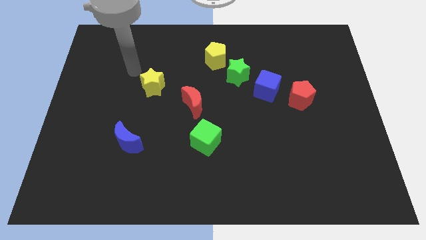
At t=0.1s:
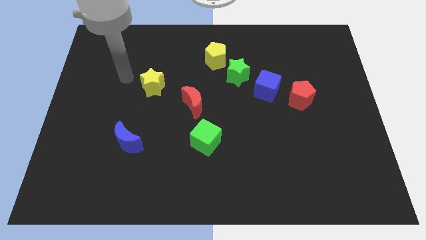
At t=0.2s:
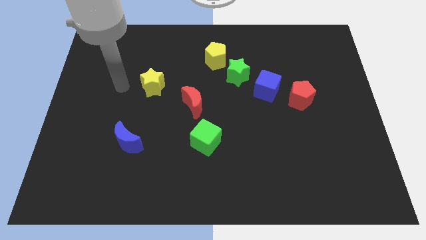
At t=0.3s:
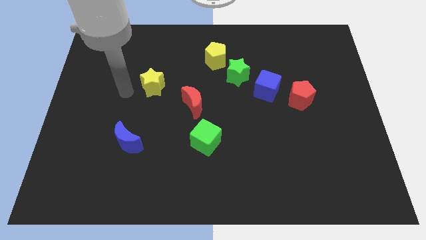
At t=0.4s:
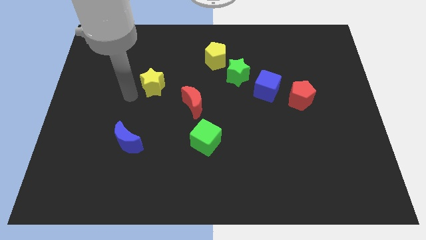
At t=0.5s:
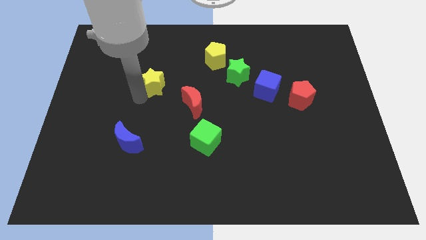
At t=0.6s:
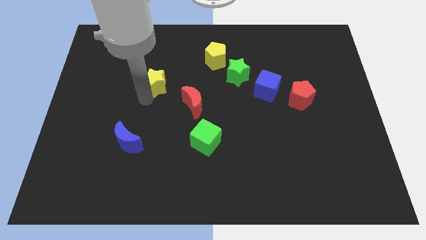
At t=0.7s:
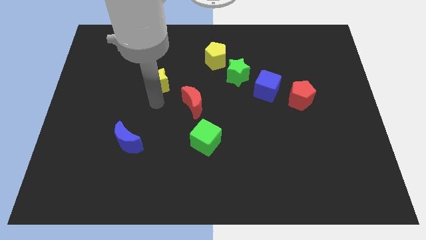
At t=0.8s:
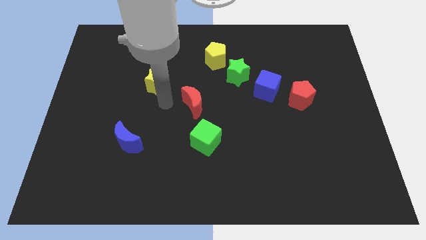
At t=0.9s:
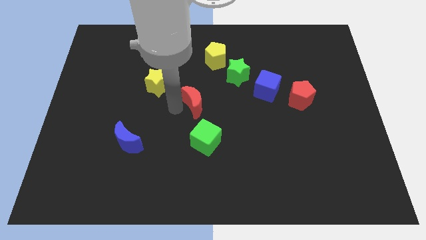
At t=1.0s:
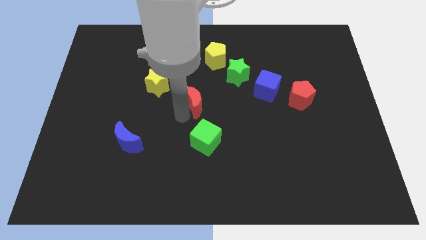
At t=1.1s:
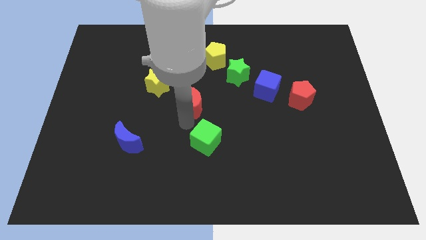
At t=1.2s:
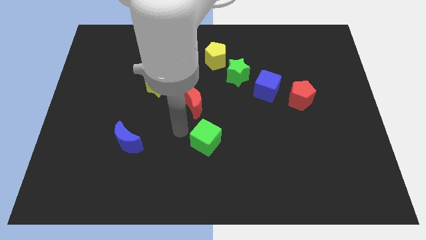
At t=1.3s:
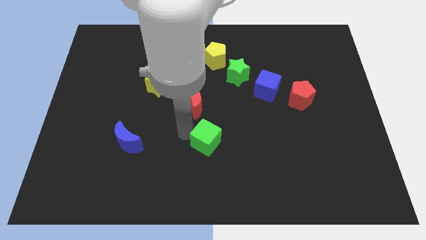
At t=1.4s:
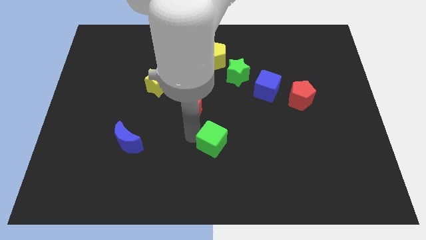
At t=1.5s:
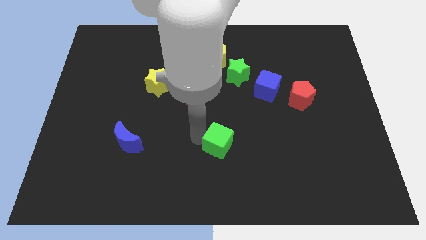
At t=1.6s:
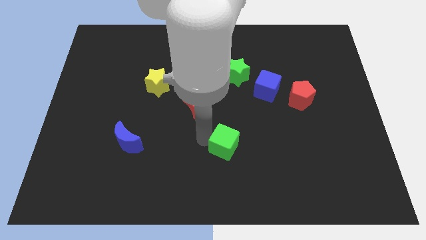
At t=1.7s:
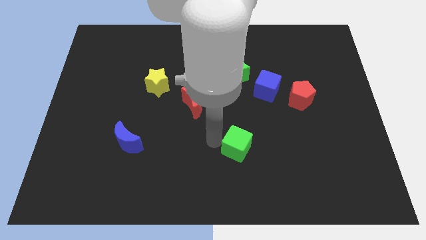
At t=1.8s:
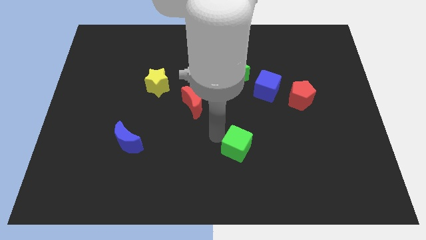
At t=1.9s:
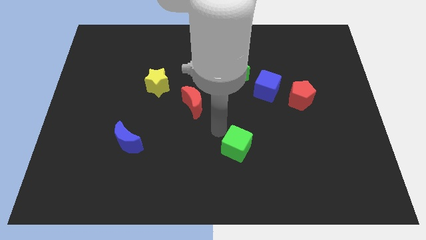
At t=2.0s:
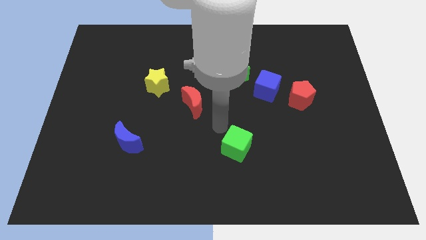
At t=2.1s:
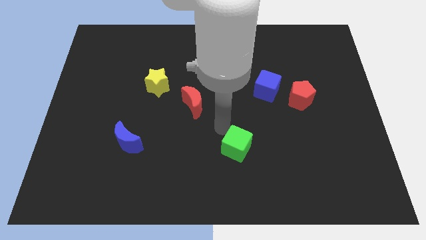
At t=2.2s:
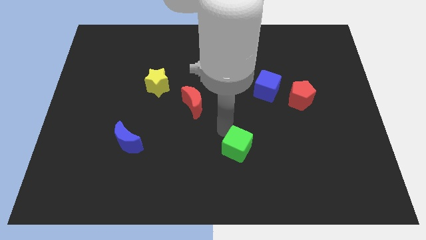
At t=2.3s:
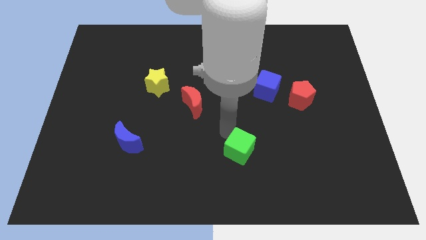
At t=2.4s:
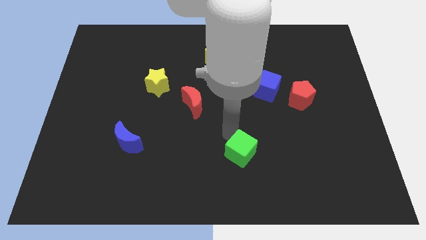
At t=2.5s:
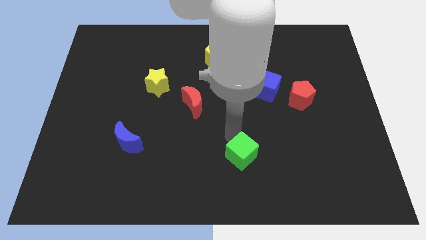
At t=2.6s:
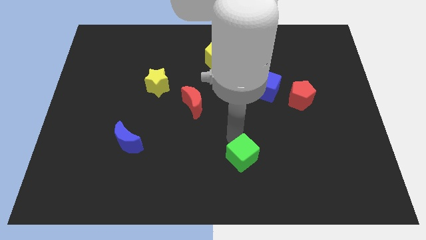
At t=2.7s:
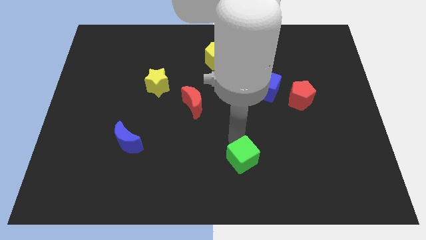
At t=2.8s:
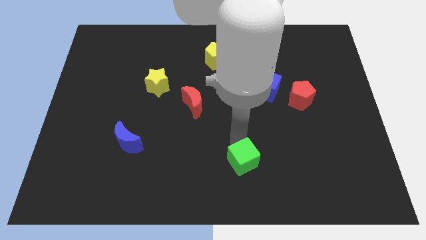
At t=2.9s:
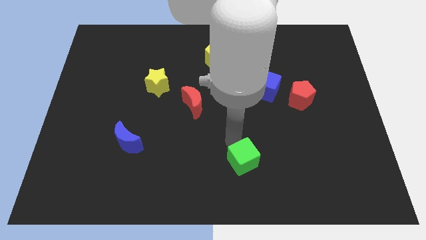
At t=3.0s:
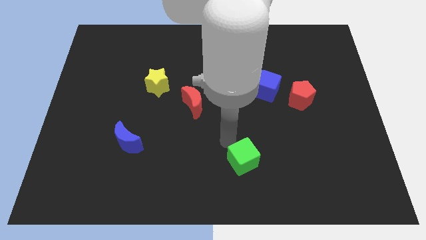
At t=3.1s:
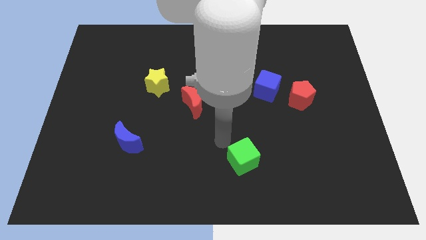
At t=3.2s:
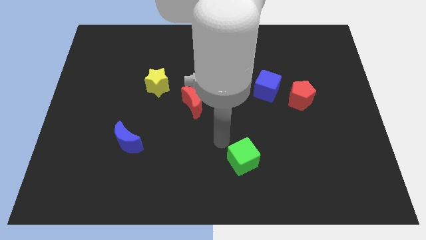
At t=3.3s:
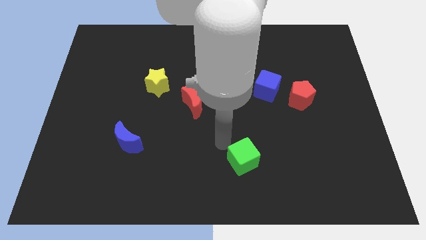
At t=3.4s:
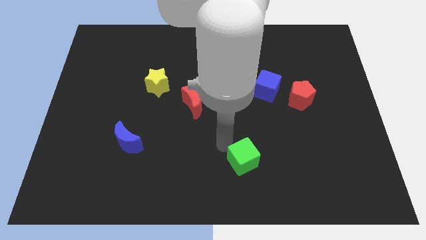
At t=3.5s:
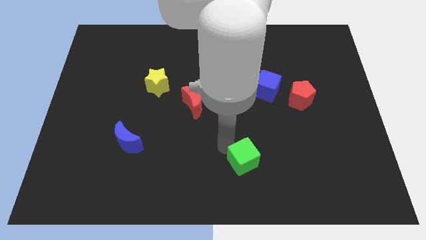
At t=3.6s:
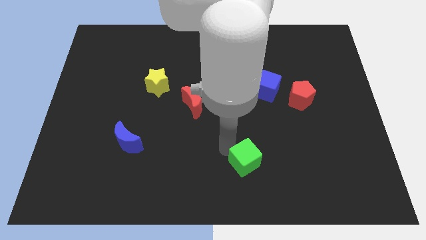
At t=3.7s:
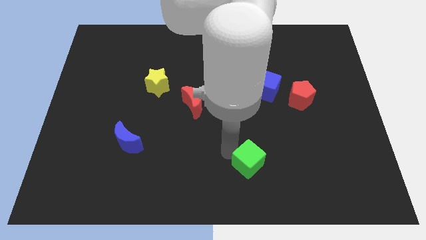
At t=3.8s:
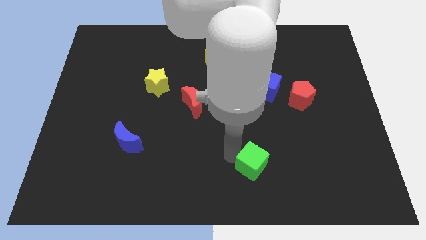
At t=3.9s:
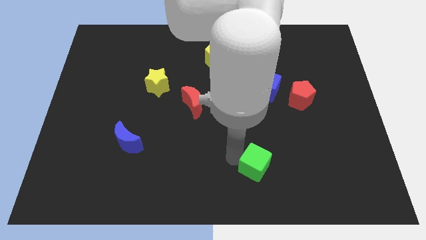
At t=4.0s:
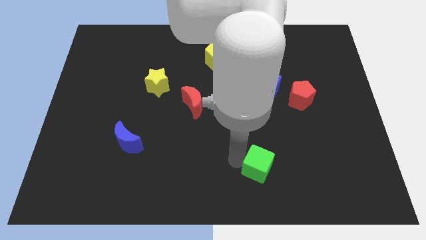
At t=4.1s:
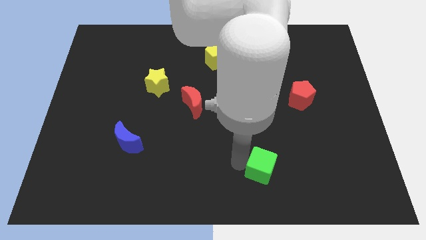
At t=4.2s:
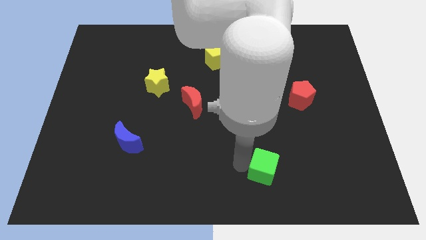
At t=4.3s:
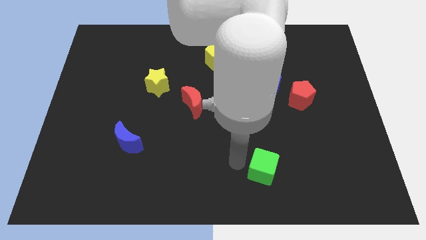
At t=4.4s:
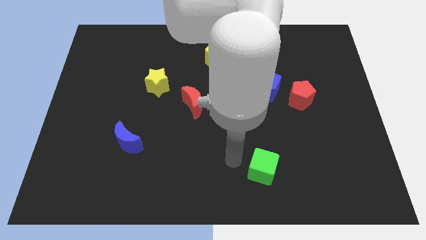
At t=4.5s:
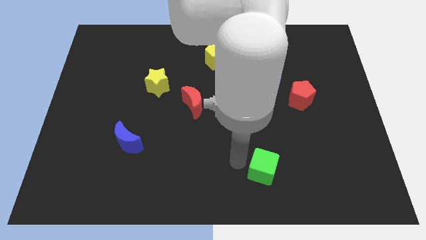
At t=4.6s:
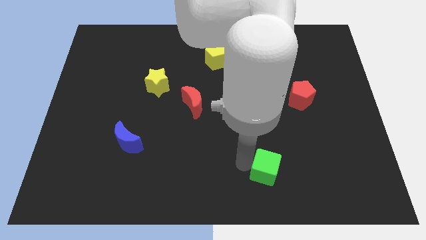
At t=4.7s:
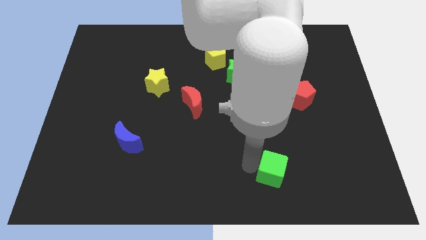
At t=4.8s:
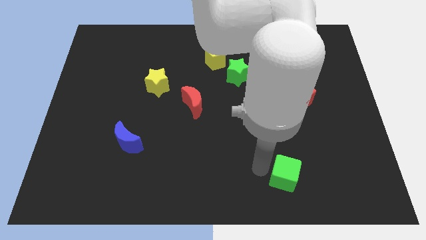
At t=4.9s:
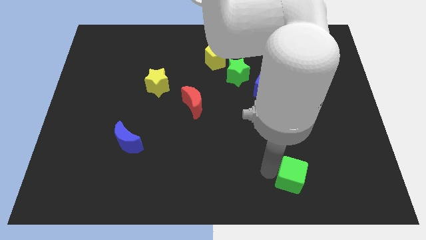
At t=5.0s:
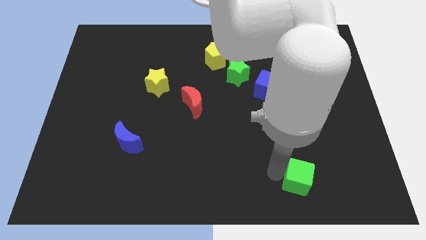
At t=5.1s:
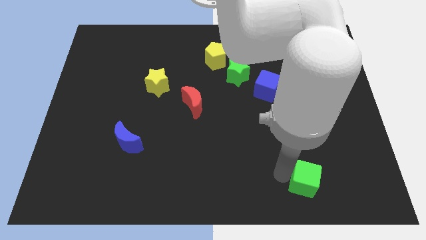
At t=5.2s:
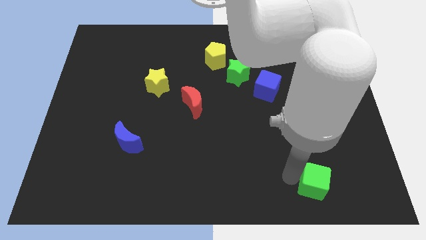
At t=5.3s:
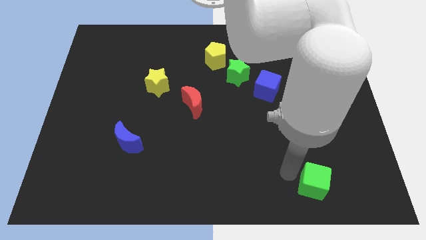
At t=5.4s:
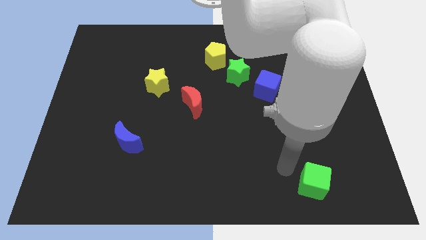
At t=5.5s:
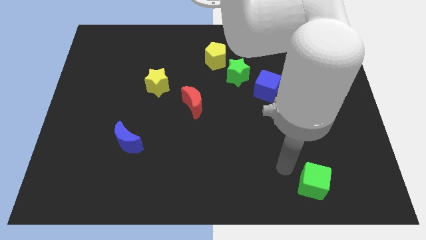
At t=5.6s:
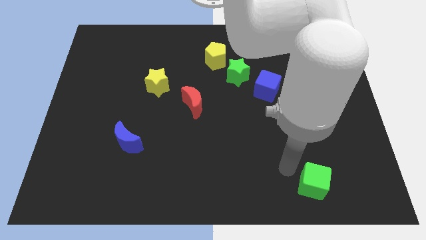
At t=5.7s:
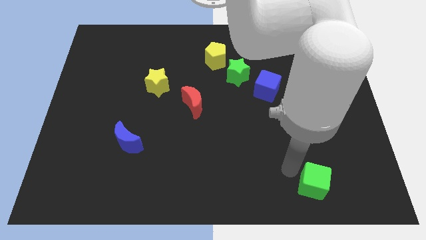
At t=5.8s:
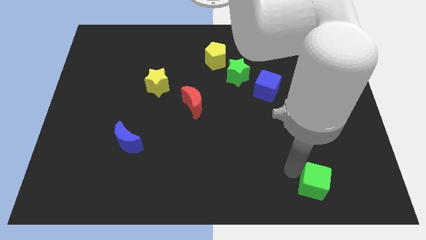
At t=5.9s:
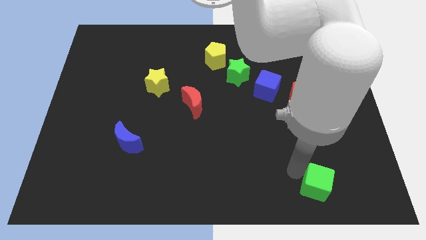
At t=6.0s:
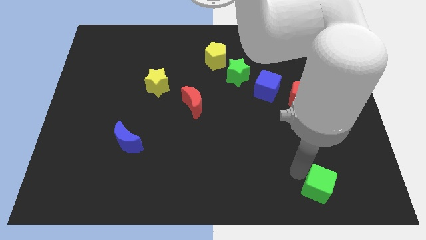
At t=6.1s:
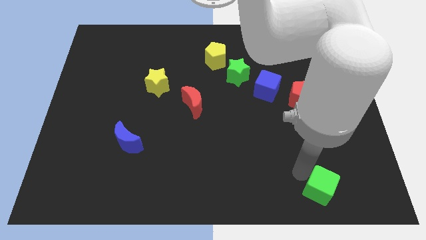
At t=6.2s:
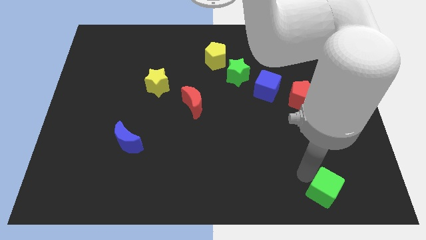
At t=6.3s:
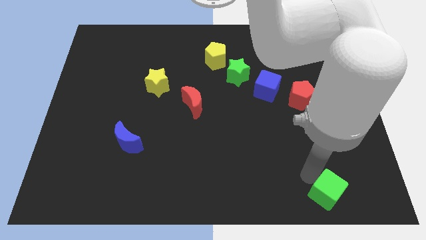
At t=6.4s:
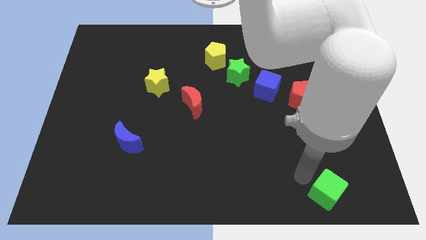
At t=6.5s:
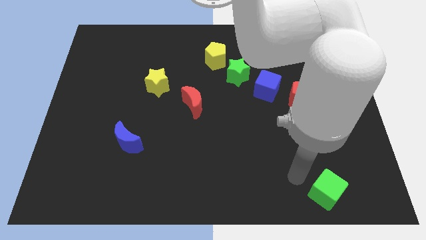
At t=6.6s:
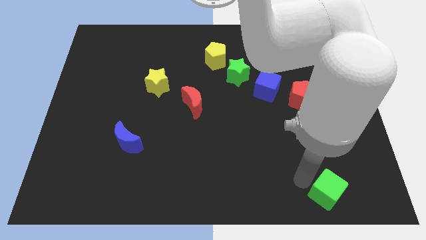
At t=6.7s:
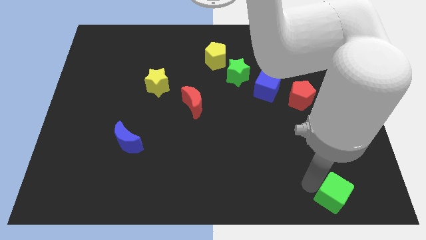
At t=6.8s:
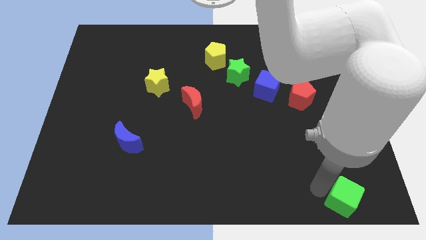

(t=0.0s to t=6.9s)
put the green cube to the lower right corner
